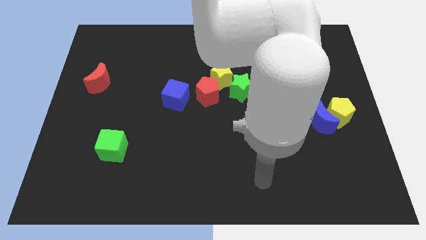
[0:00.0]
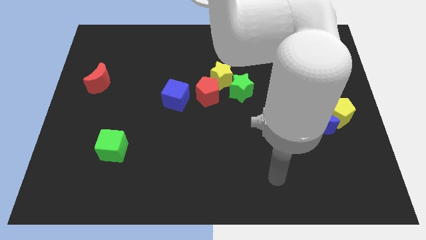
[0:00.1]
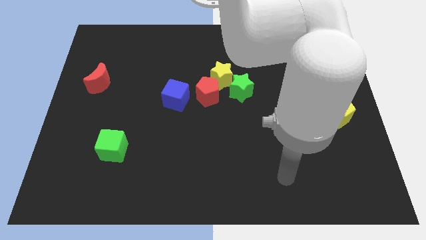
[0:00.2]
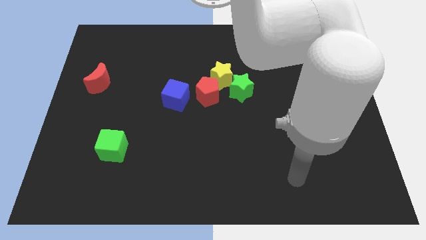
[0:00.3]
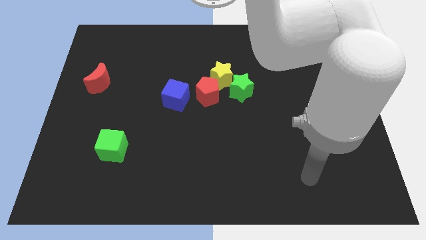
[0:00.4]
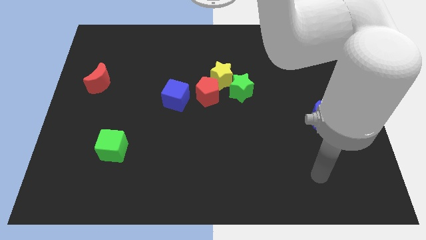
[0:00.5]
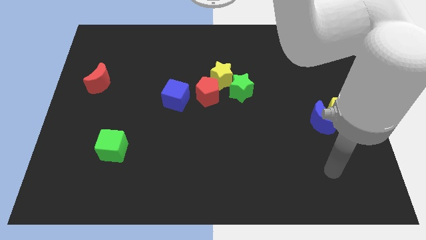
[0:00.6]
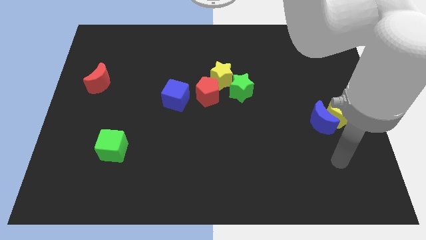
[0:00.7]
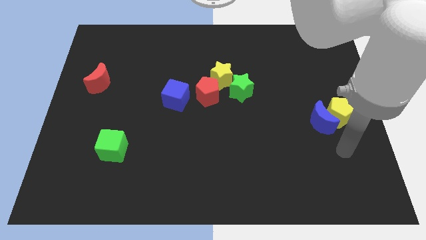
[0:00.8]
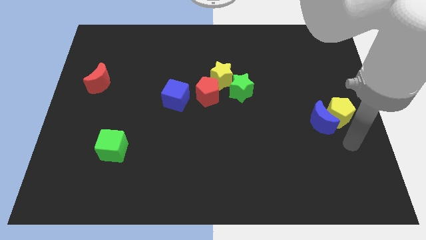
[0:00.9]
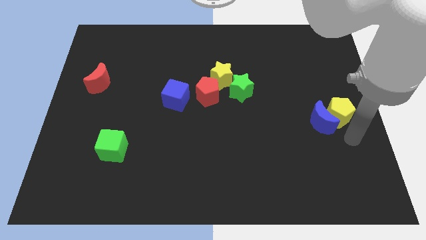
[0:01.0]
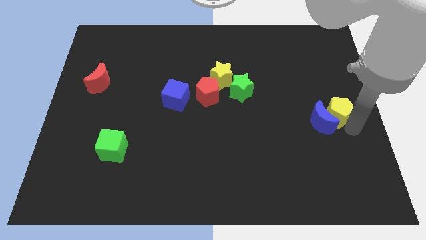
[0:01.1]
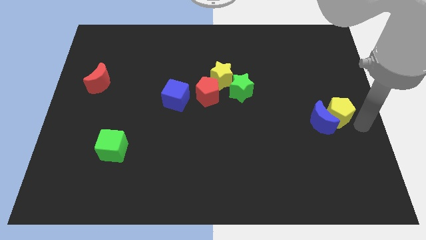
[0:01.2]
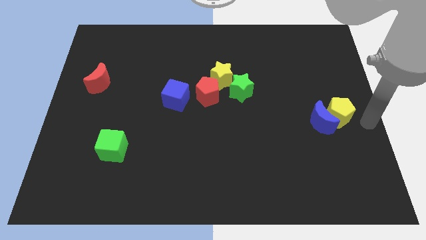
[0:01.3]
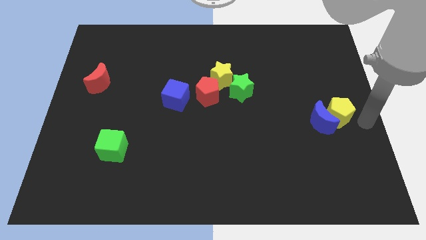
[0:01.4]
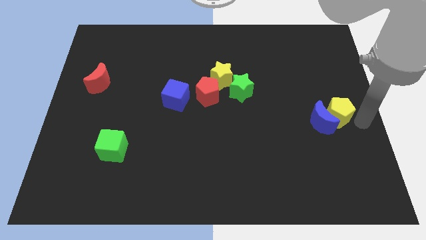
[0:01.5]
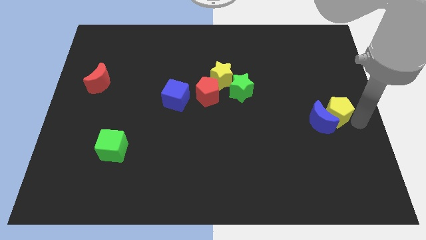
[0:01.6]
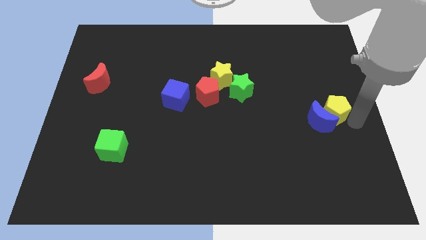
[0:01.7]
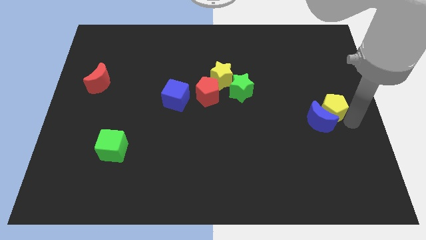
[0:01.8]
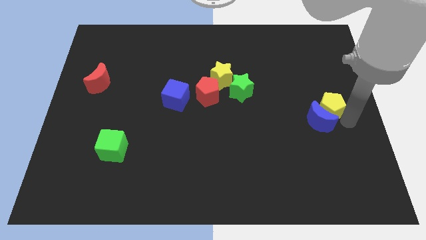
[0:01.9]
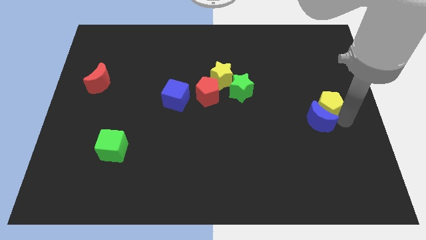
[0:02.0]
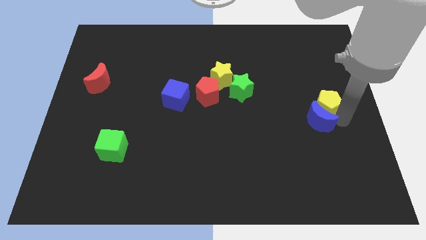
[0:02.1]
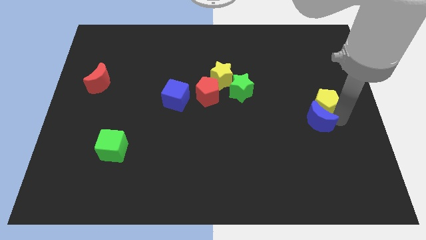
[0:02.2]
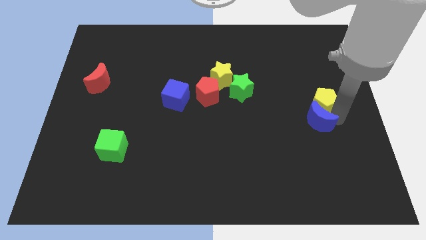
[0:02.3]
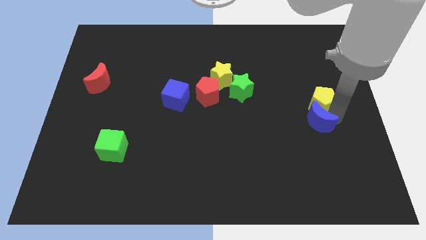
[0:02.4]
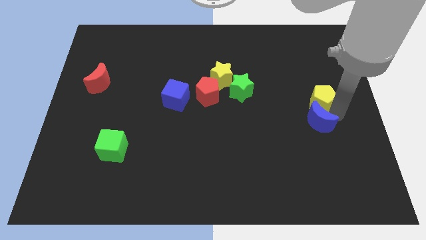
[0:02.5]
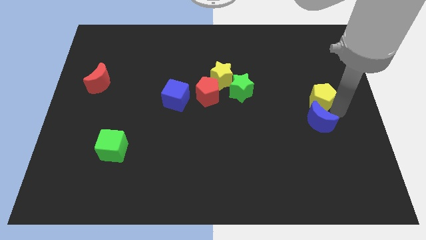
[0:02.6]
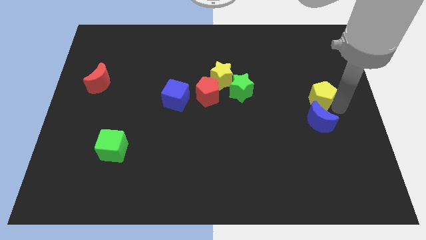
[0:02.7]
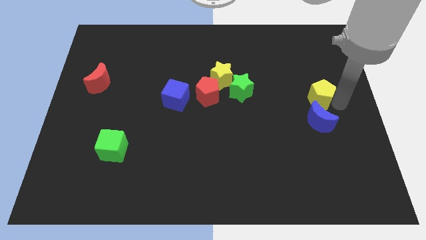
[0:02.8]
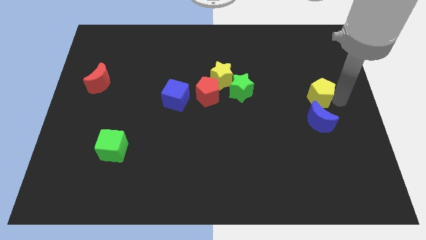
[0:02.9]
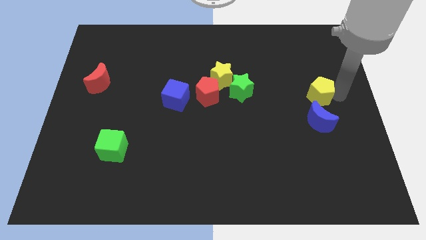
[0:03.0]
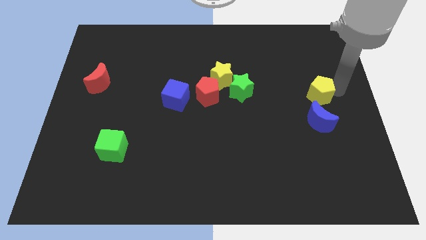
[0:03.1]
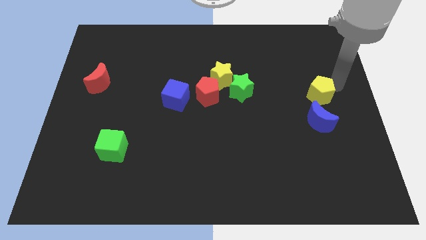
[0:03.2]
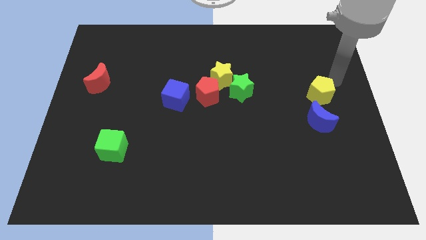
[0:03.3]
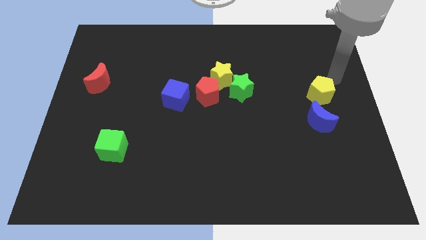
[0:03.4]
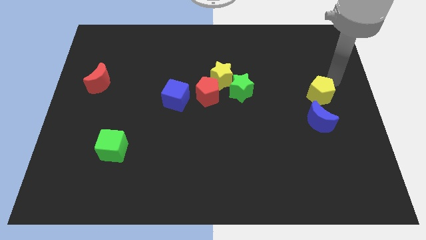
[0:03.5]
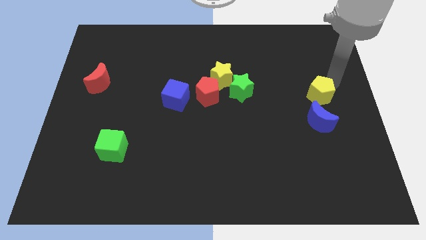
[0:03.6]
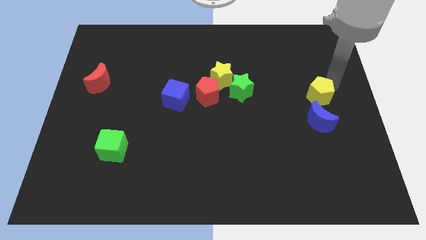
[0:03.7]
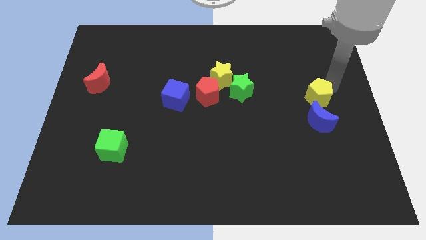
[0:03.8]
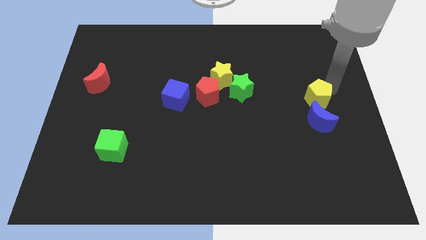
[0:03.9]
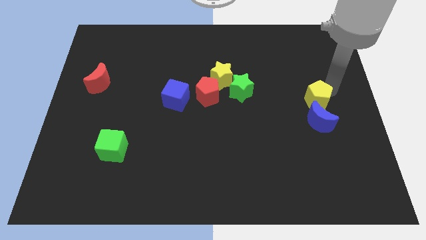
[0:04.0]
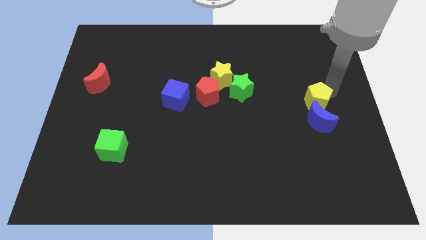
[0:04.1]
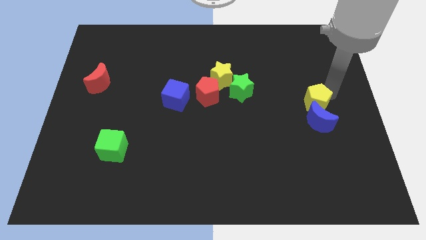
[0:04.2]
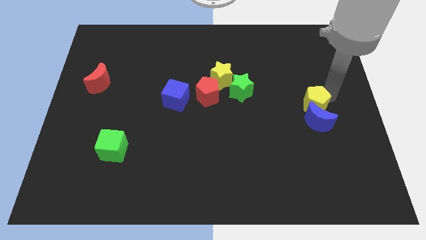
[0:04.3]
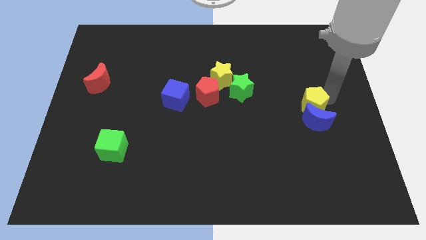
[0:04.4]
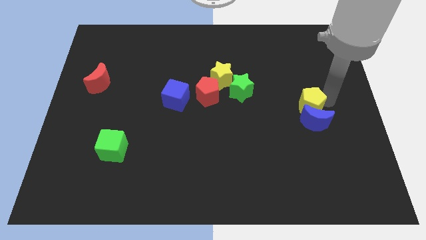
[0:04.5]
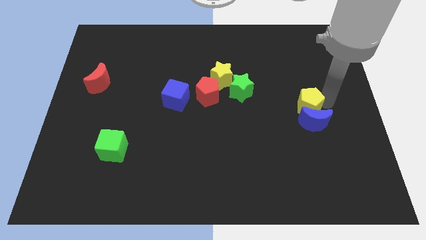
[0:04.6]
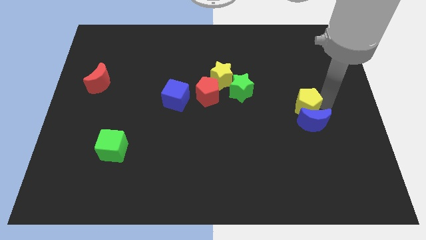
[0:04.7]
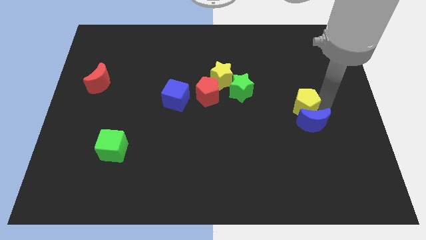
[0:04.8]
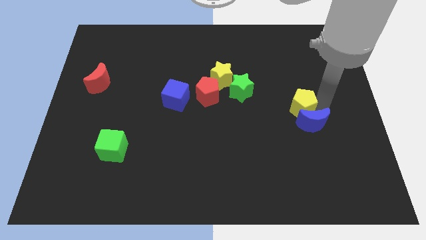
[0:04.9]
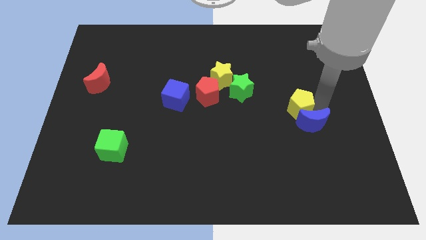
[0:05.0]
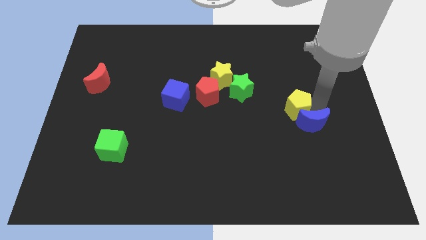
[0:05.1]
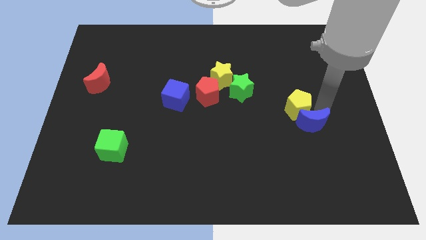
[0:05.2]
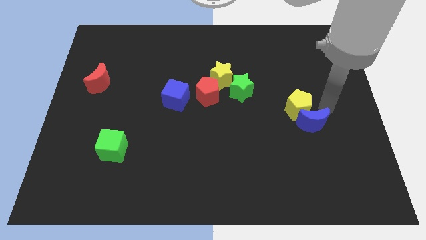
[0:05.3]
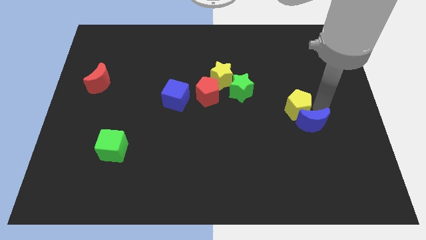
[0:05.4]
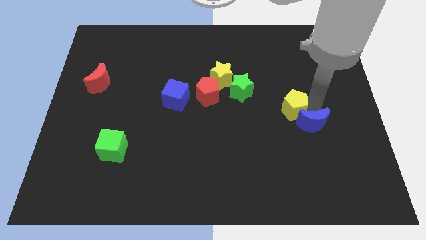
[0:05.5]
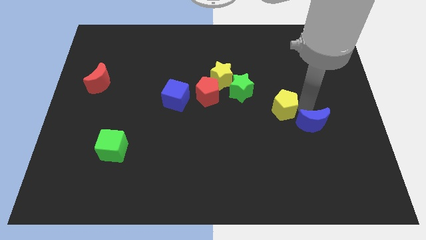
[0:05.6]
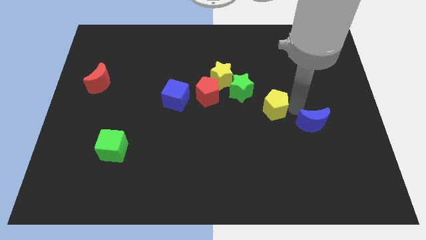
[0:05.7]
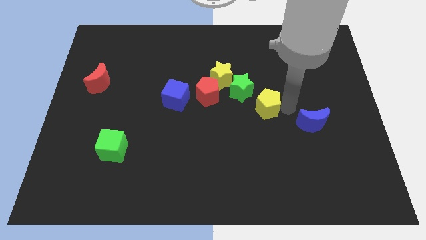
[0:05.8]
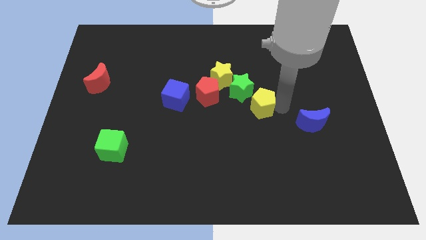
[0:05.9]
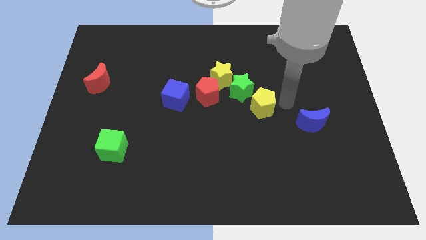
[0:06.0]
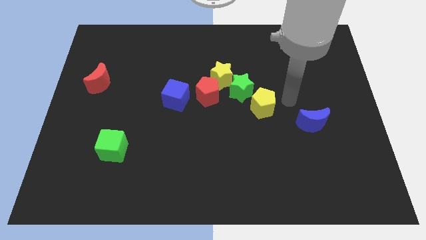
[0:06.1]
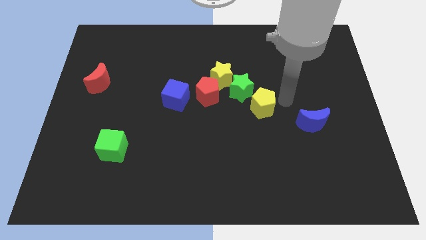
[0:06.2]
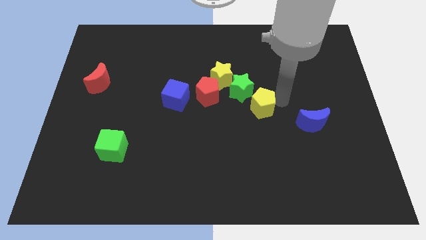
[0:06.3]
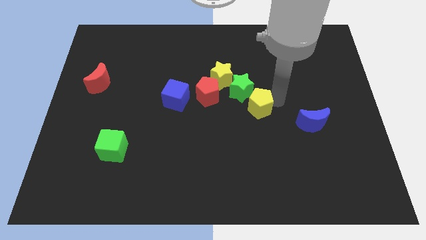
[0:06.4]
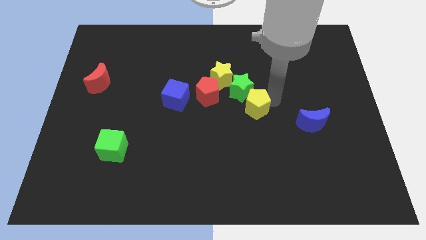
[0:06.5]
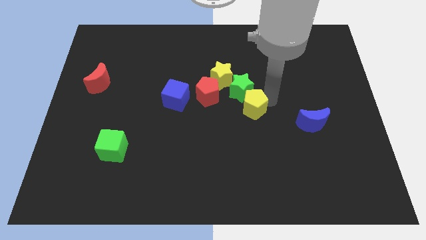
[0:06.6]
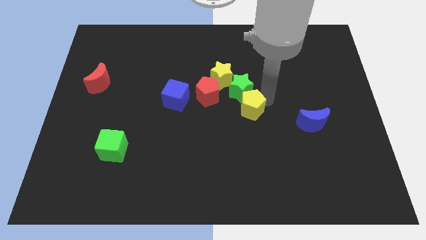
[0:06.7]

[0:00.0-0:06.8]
push the yellow pentagon left

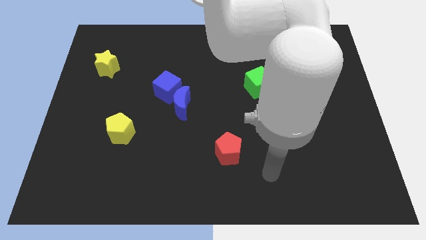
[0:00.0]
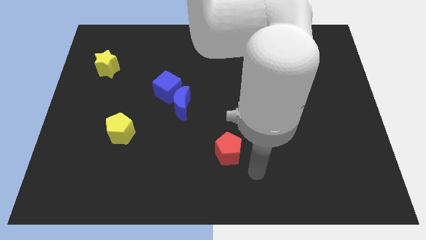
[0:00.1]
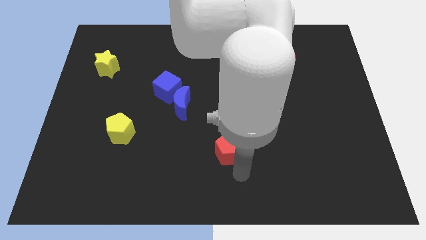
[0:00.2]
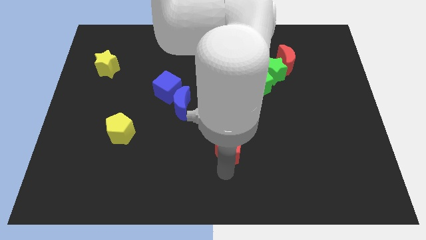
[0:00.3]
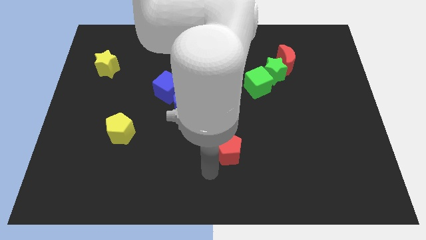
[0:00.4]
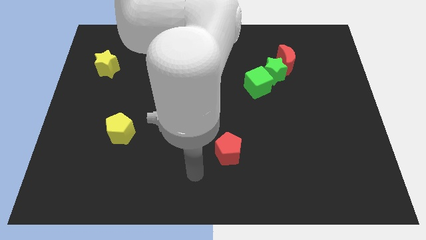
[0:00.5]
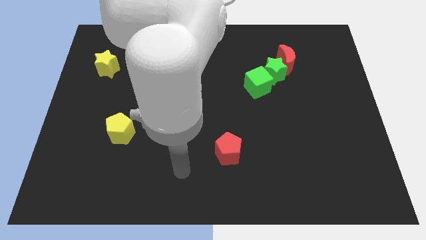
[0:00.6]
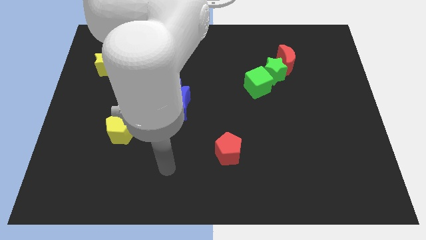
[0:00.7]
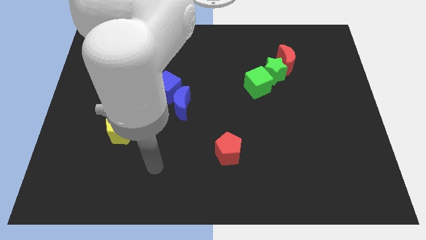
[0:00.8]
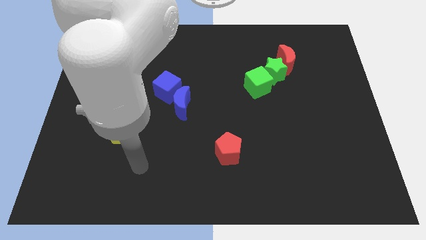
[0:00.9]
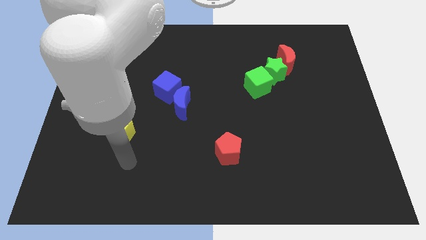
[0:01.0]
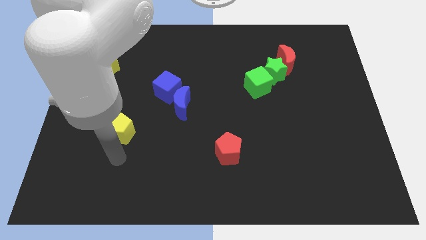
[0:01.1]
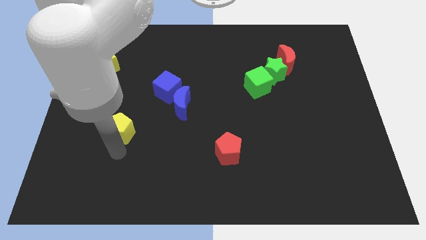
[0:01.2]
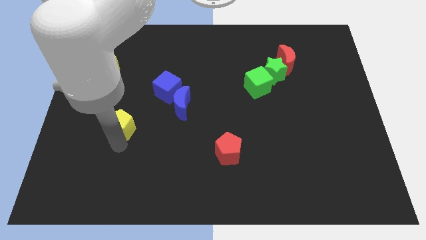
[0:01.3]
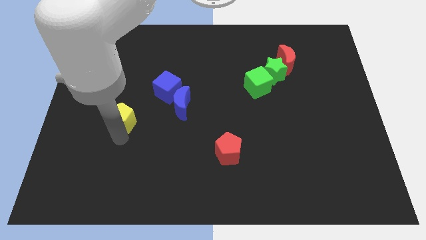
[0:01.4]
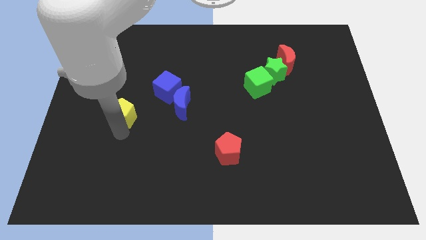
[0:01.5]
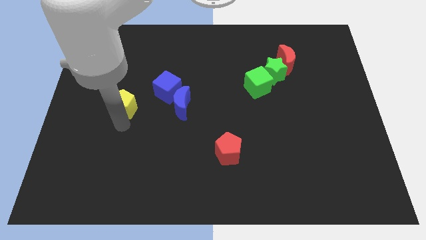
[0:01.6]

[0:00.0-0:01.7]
push the yellow pentagon somewhat upwards

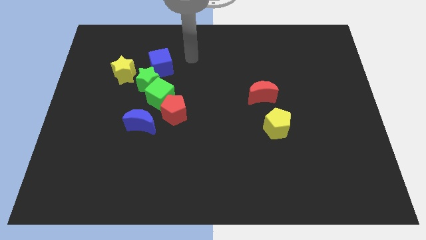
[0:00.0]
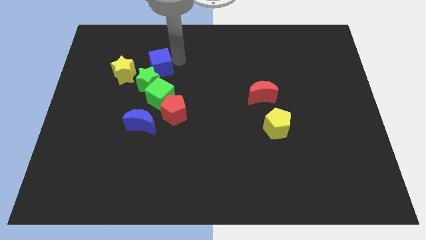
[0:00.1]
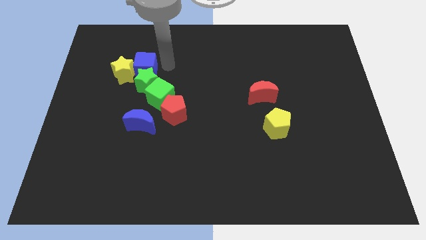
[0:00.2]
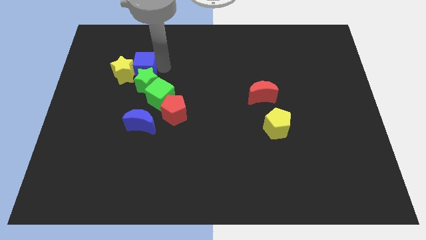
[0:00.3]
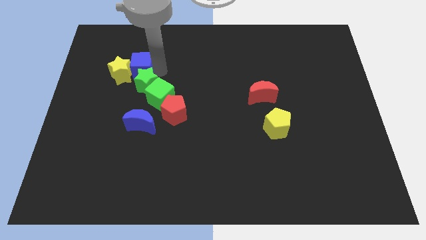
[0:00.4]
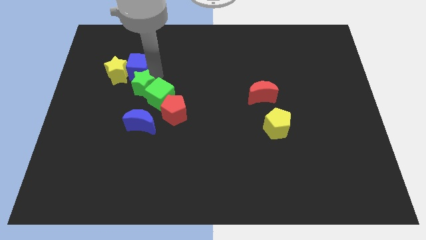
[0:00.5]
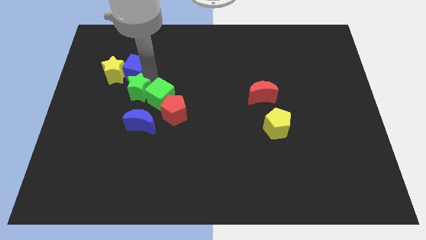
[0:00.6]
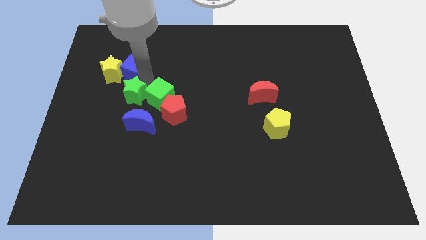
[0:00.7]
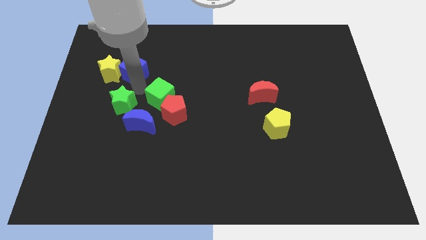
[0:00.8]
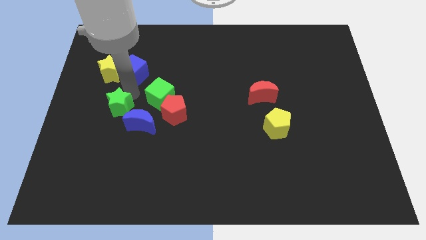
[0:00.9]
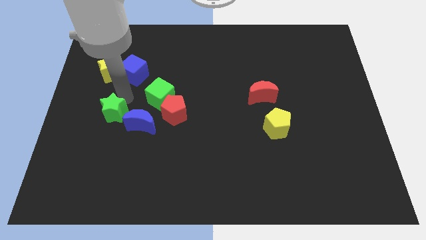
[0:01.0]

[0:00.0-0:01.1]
slightly slide the green star down
